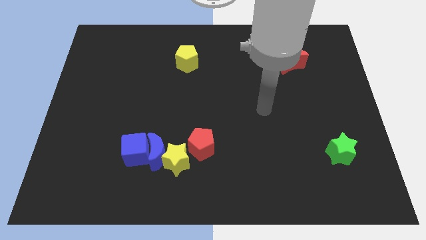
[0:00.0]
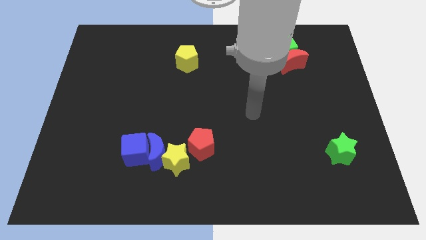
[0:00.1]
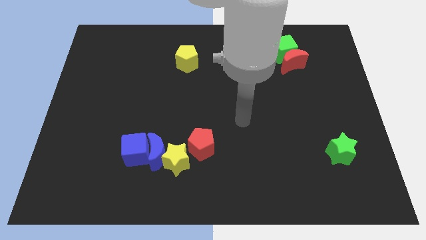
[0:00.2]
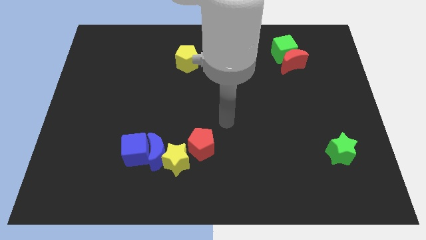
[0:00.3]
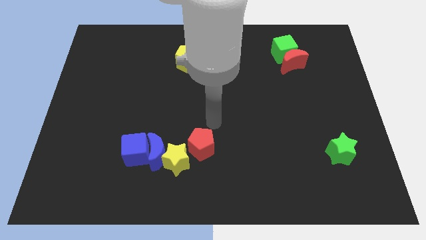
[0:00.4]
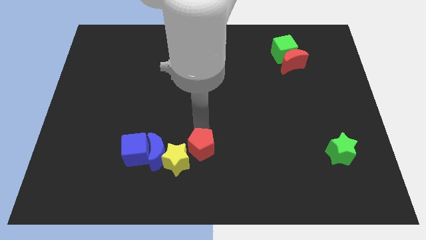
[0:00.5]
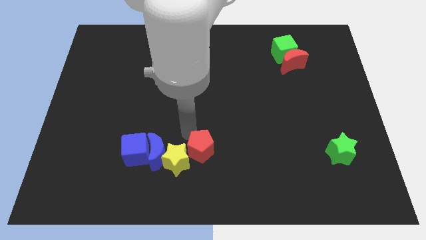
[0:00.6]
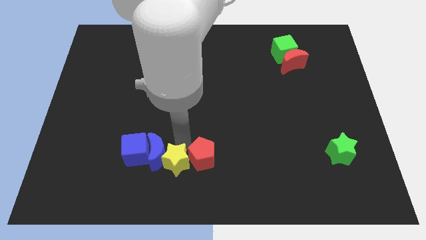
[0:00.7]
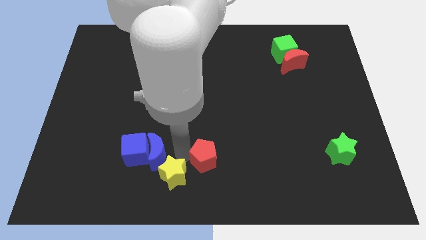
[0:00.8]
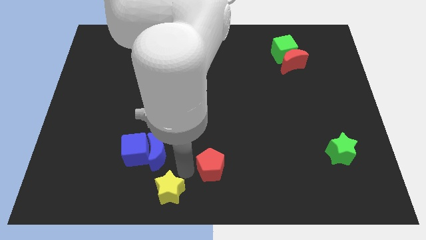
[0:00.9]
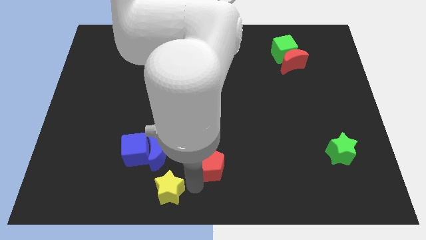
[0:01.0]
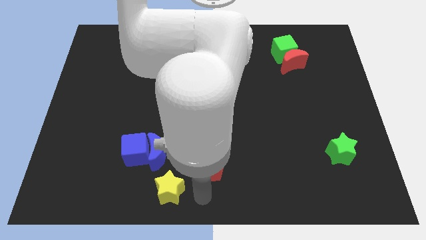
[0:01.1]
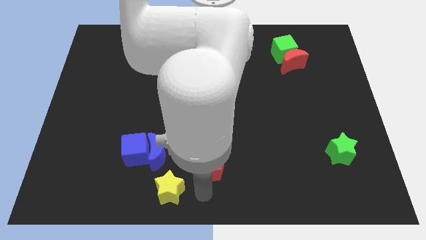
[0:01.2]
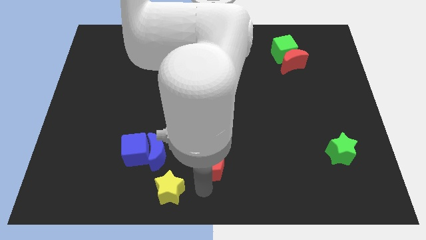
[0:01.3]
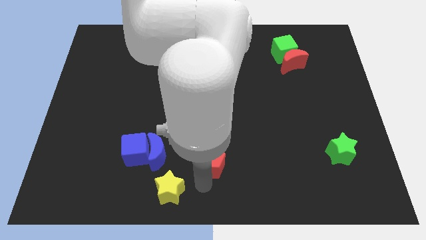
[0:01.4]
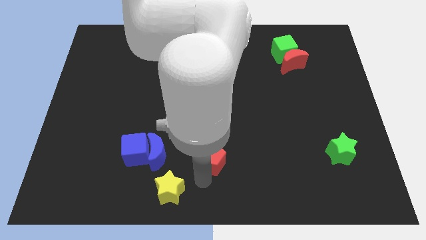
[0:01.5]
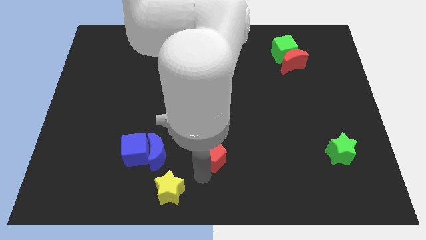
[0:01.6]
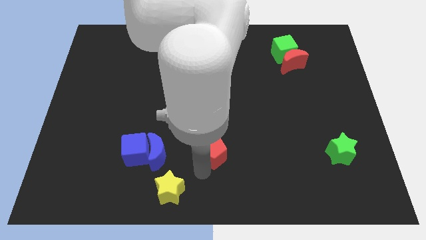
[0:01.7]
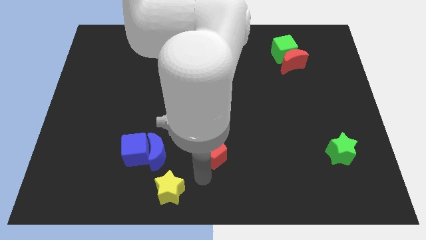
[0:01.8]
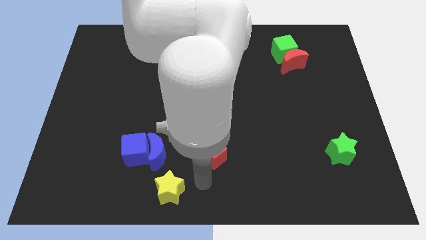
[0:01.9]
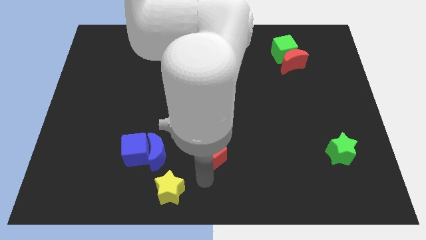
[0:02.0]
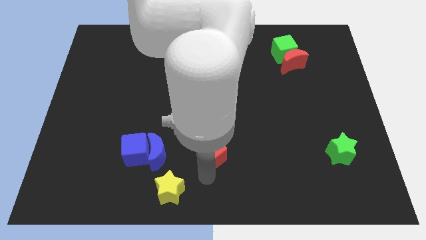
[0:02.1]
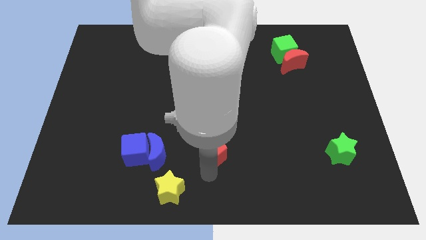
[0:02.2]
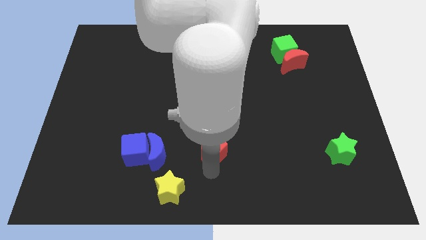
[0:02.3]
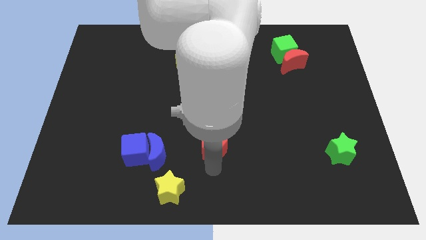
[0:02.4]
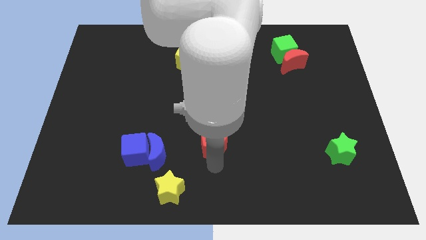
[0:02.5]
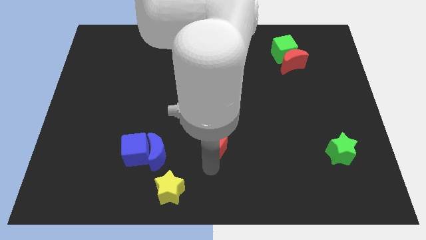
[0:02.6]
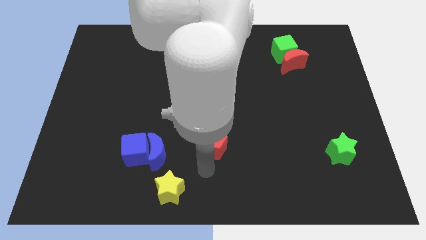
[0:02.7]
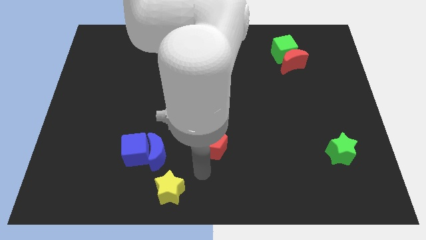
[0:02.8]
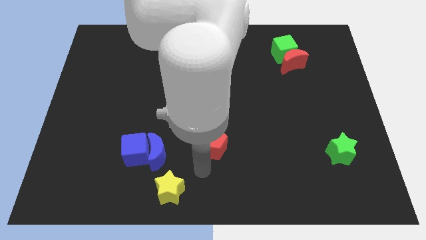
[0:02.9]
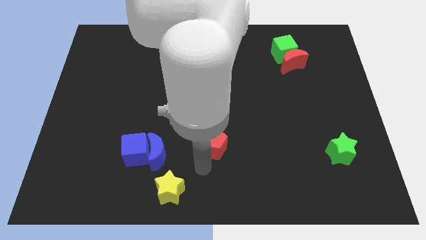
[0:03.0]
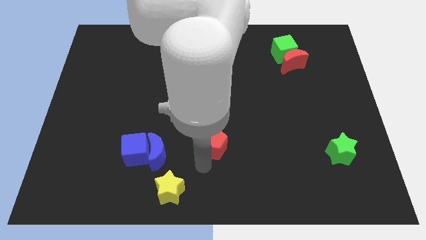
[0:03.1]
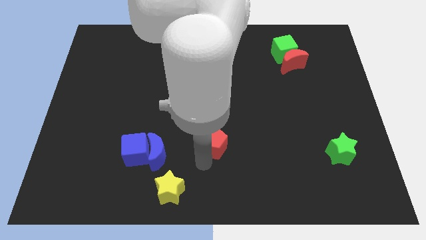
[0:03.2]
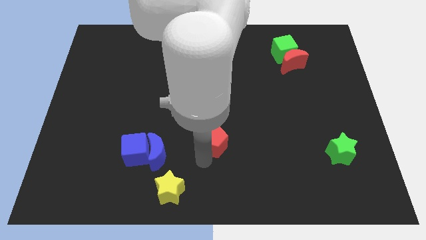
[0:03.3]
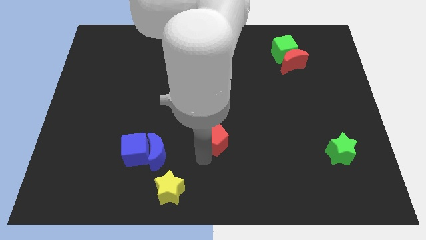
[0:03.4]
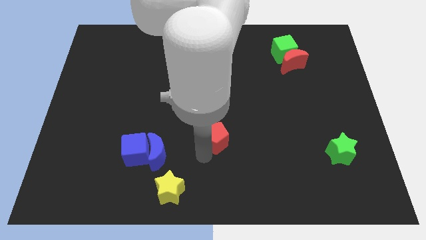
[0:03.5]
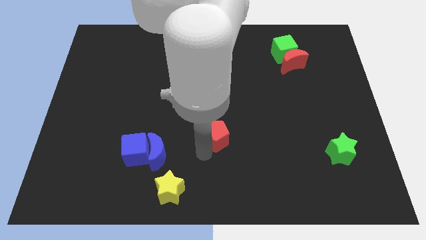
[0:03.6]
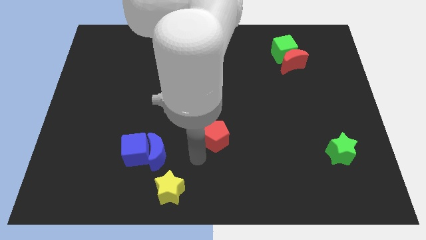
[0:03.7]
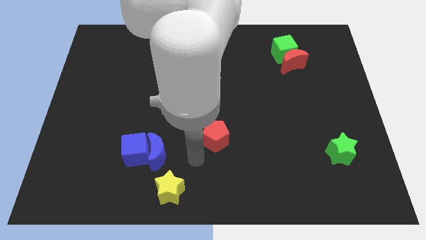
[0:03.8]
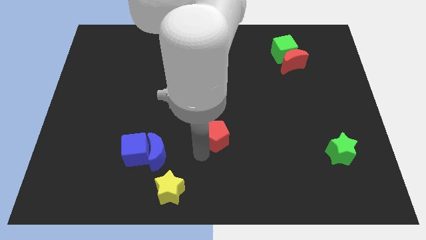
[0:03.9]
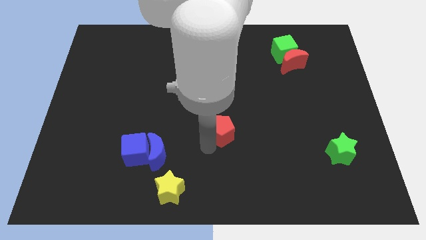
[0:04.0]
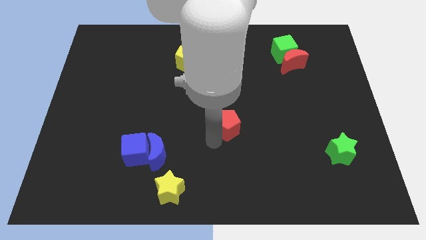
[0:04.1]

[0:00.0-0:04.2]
push the red pentagon slightly up and then right

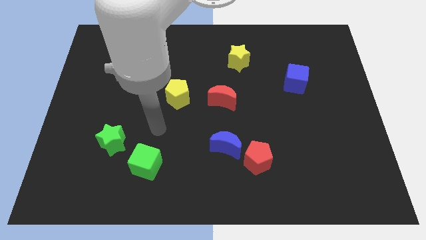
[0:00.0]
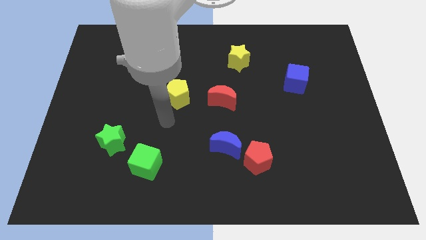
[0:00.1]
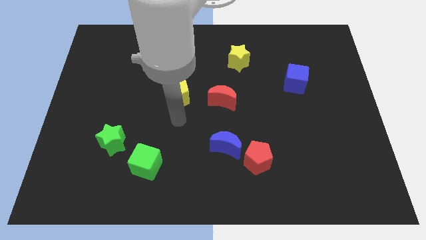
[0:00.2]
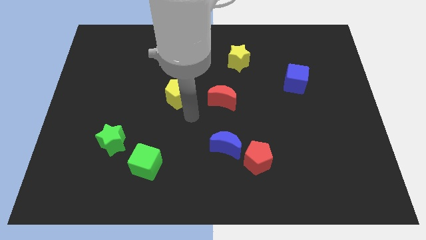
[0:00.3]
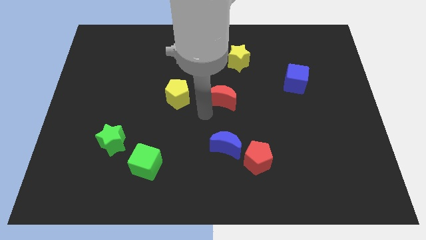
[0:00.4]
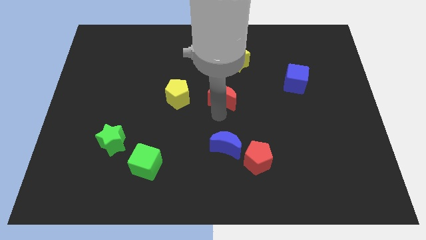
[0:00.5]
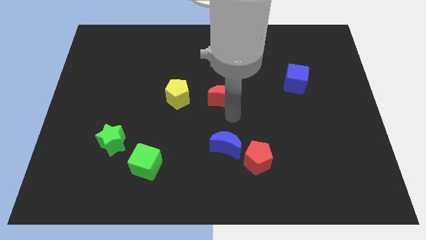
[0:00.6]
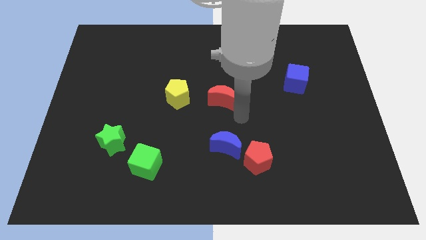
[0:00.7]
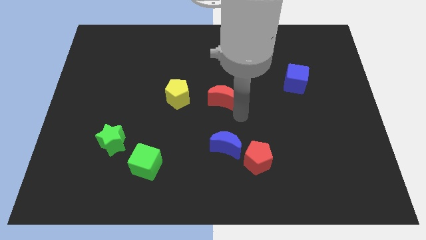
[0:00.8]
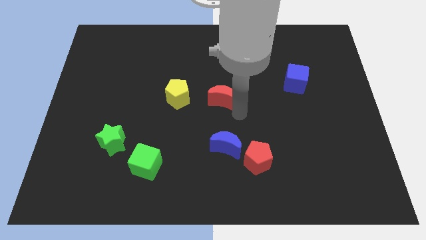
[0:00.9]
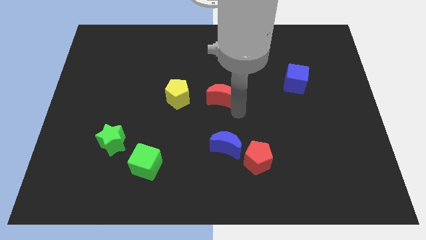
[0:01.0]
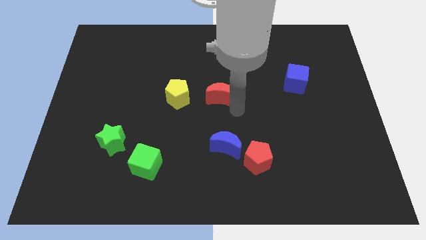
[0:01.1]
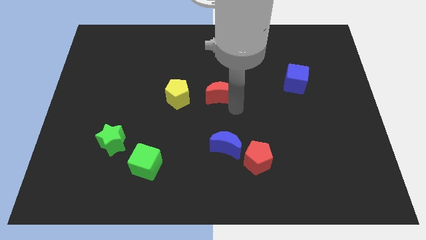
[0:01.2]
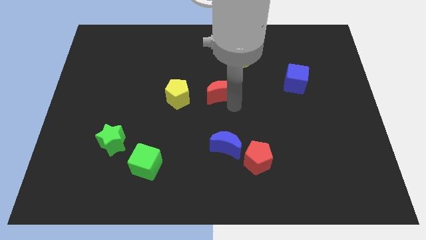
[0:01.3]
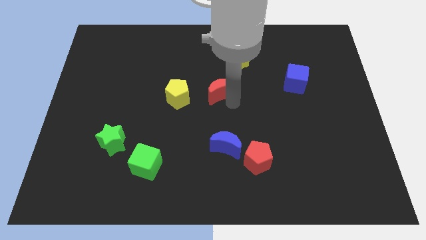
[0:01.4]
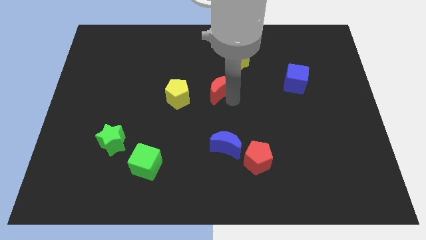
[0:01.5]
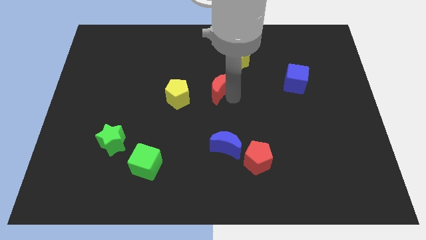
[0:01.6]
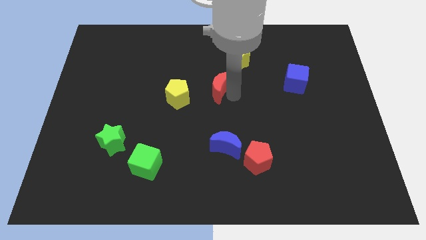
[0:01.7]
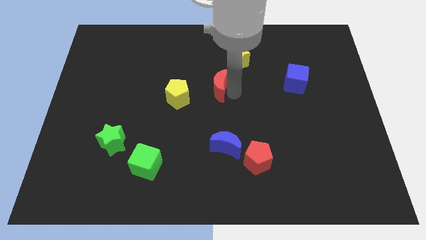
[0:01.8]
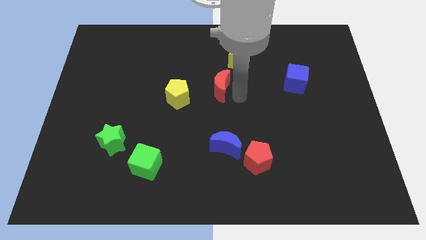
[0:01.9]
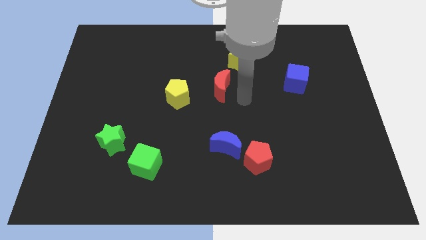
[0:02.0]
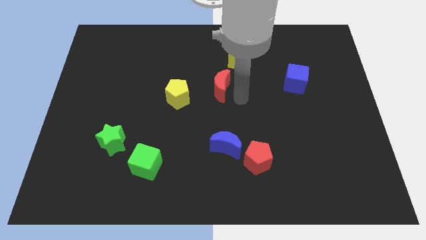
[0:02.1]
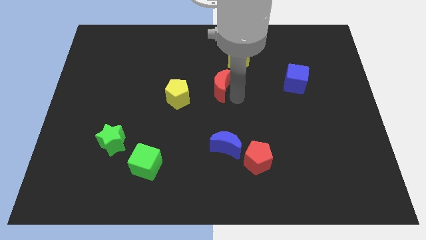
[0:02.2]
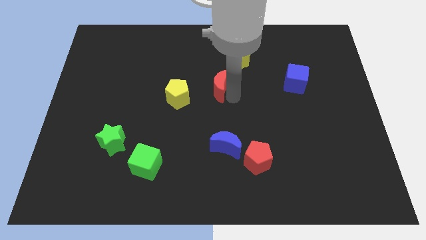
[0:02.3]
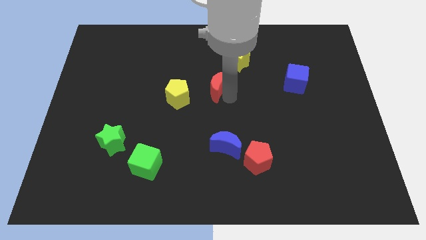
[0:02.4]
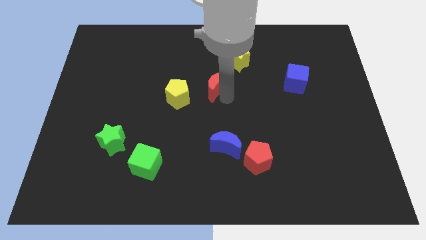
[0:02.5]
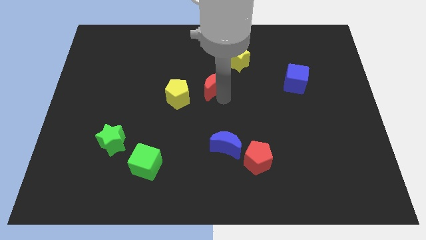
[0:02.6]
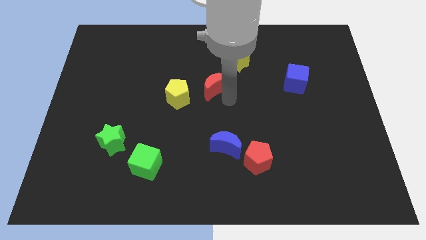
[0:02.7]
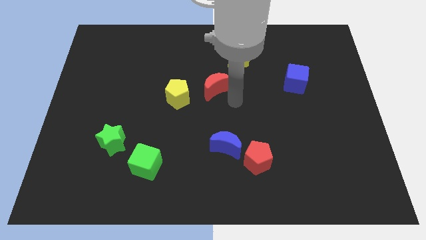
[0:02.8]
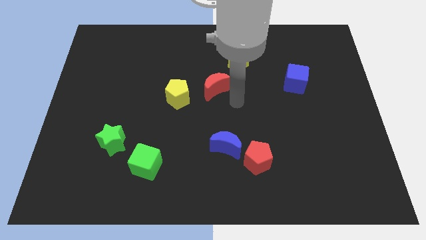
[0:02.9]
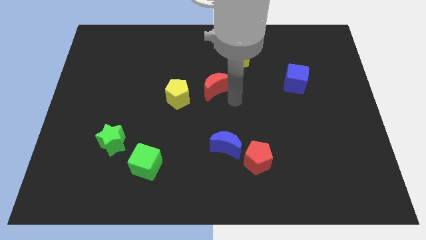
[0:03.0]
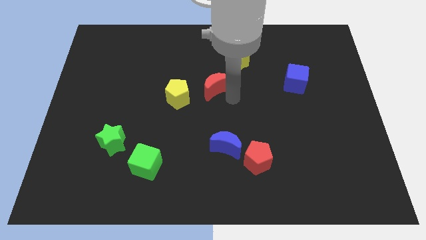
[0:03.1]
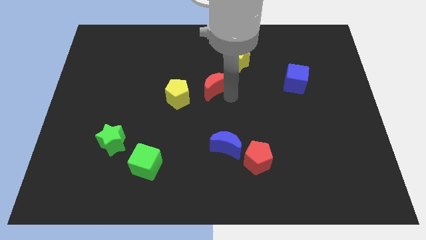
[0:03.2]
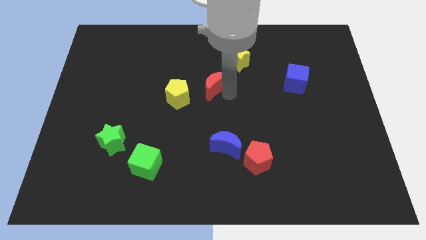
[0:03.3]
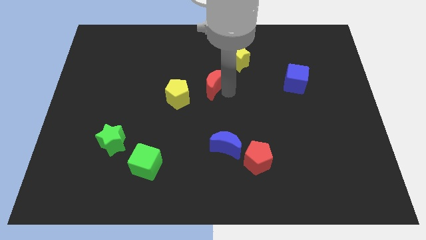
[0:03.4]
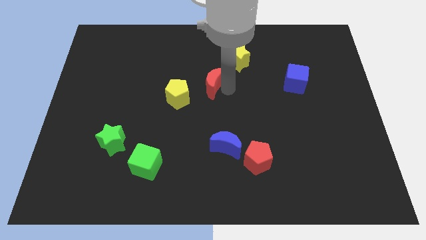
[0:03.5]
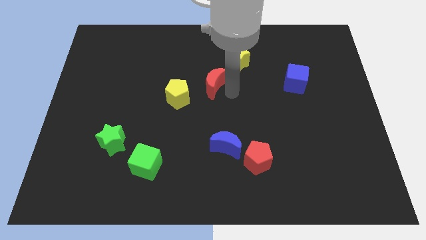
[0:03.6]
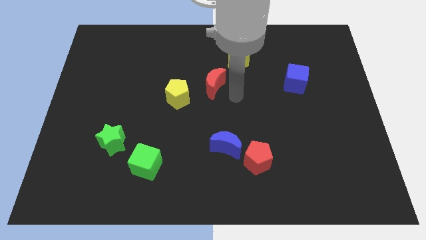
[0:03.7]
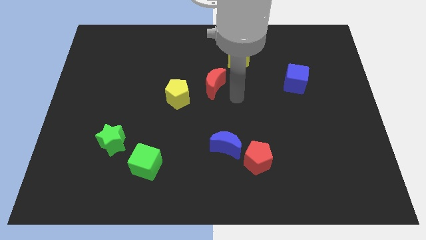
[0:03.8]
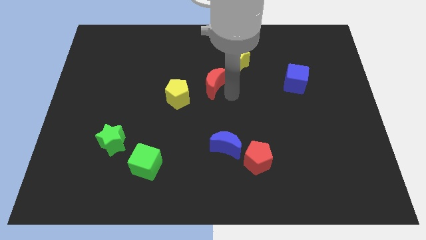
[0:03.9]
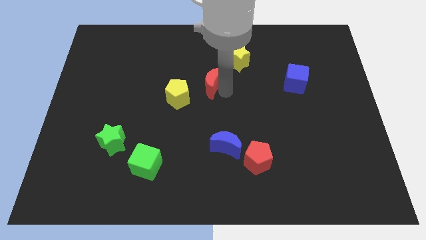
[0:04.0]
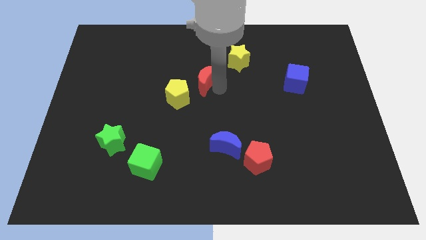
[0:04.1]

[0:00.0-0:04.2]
push the red moon a little up and then to the left
